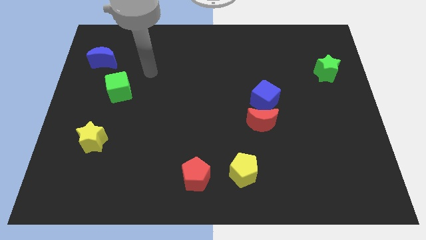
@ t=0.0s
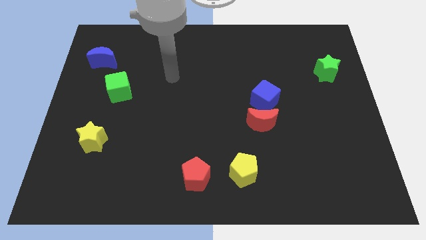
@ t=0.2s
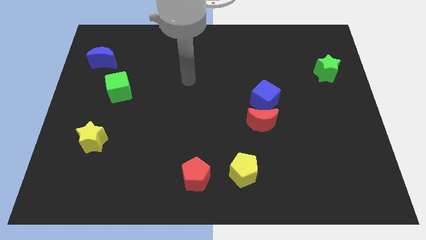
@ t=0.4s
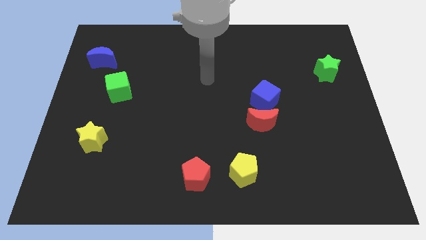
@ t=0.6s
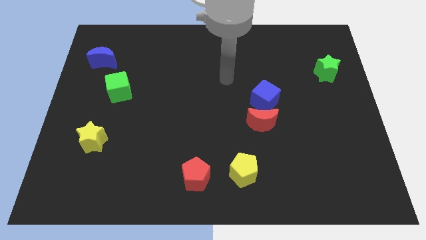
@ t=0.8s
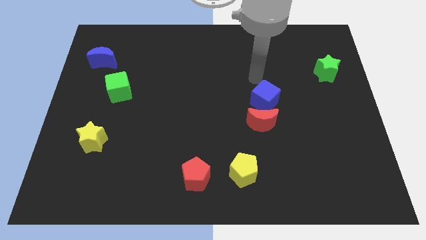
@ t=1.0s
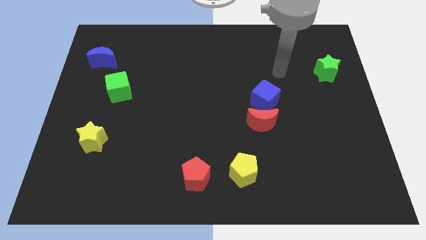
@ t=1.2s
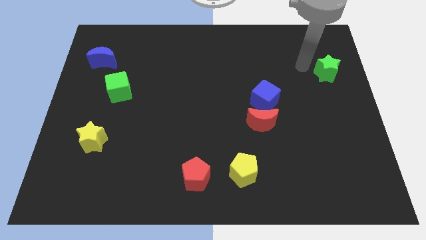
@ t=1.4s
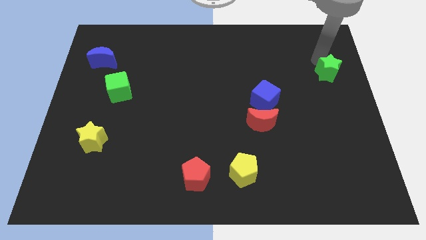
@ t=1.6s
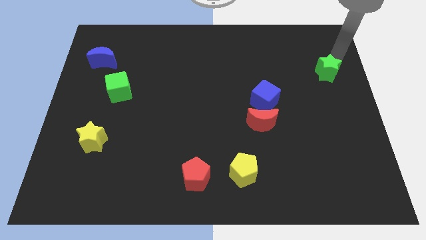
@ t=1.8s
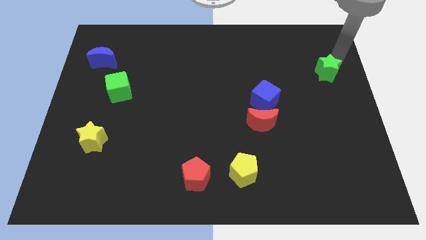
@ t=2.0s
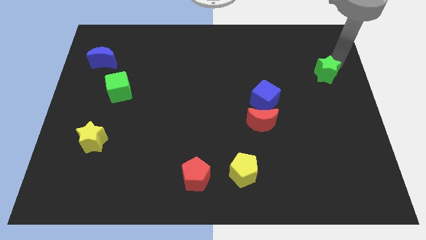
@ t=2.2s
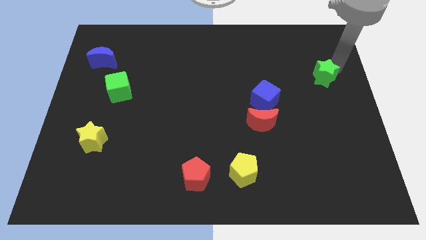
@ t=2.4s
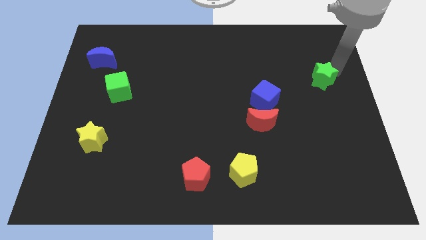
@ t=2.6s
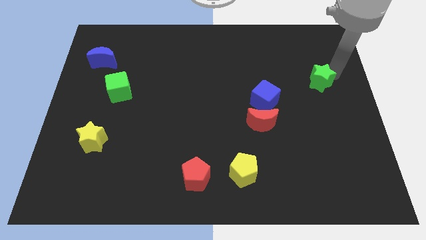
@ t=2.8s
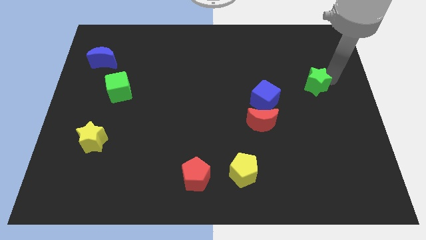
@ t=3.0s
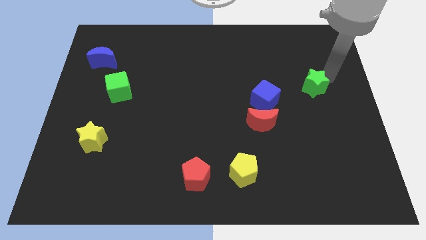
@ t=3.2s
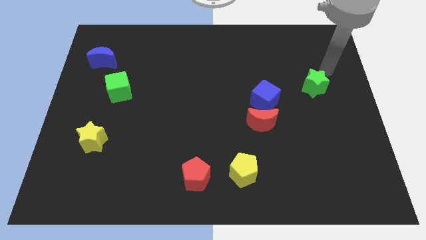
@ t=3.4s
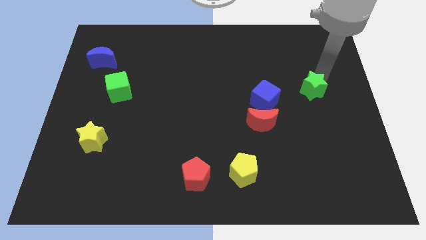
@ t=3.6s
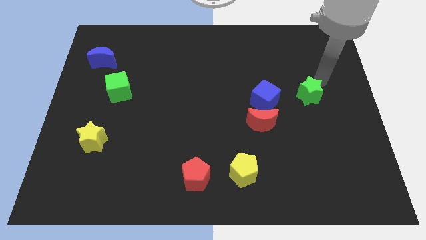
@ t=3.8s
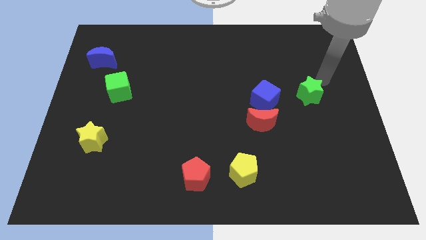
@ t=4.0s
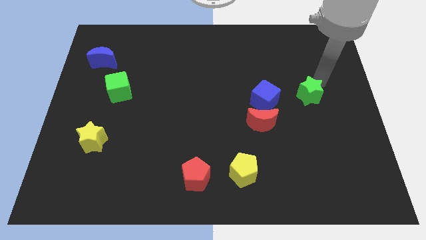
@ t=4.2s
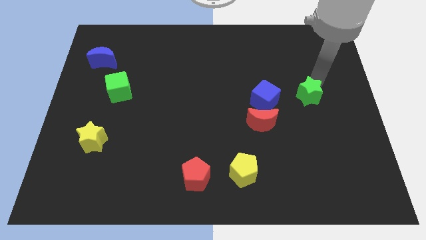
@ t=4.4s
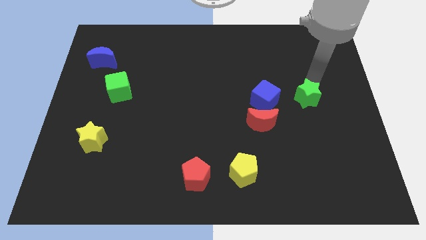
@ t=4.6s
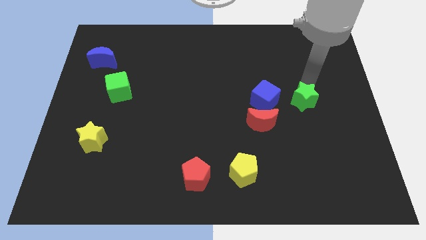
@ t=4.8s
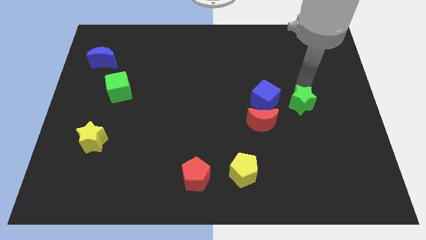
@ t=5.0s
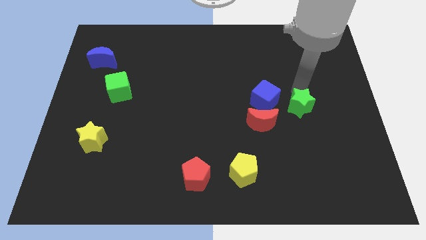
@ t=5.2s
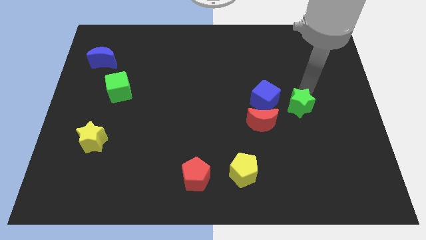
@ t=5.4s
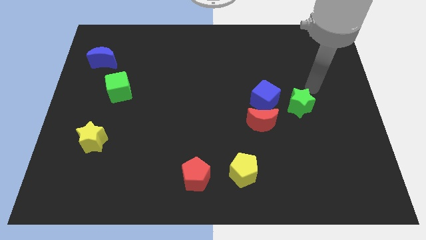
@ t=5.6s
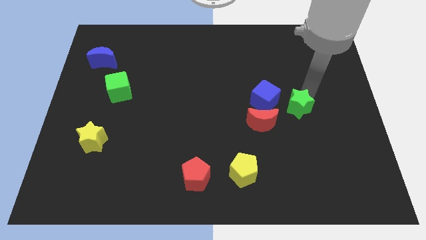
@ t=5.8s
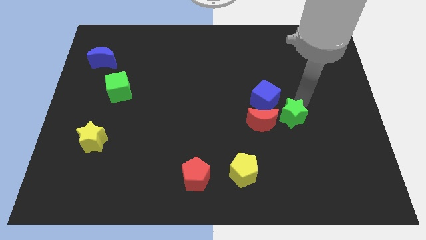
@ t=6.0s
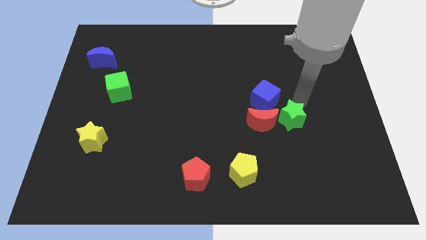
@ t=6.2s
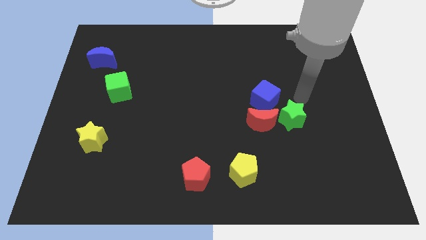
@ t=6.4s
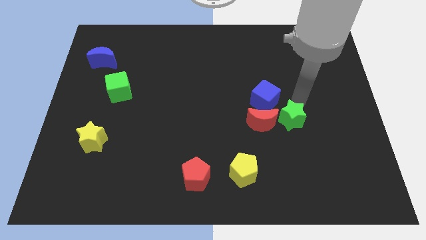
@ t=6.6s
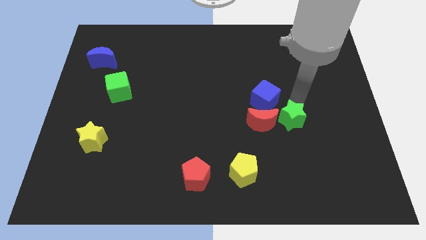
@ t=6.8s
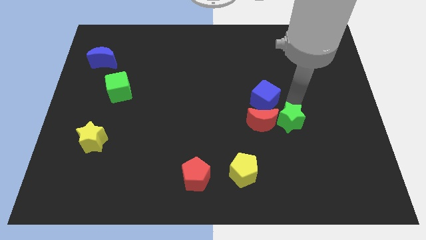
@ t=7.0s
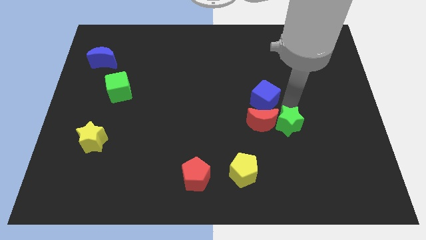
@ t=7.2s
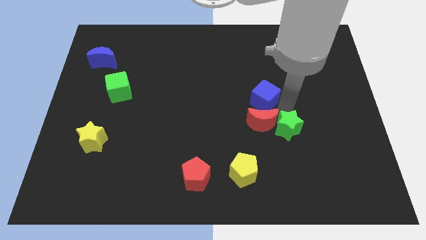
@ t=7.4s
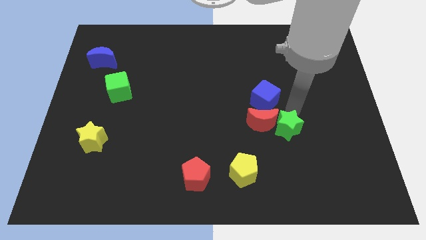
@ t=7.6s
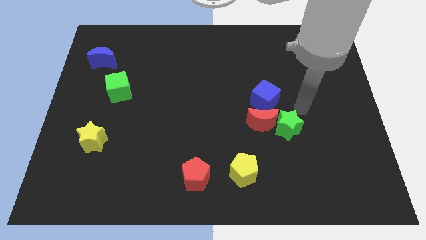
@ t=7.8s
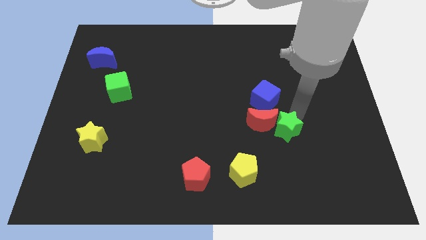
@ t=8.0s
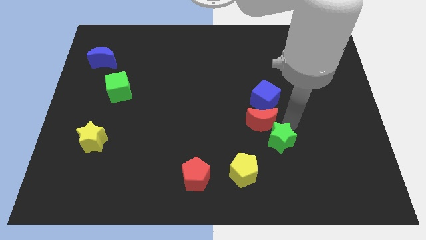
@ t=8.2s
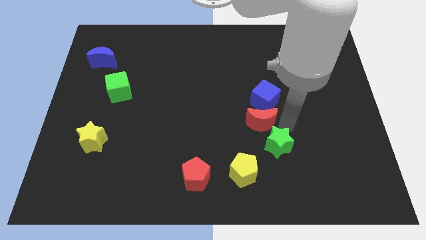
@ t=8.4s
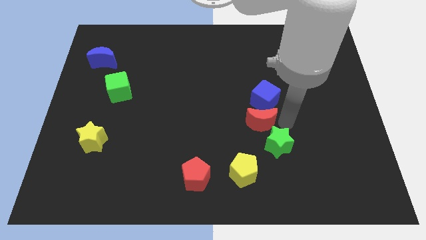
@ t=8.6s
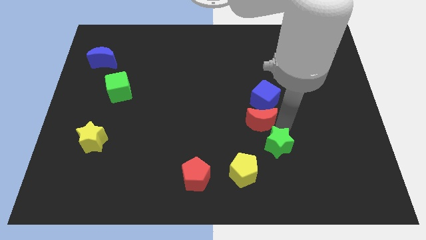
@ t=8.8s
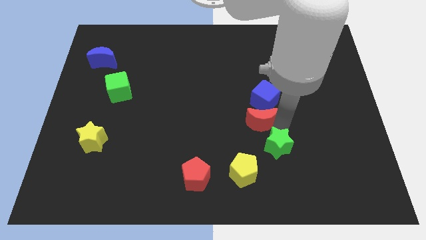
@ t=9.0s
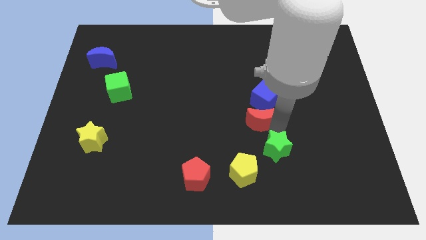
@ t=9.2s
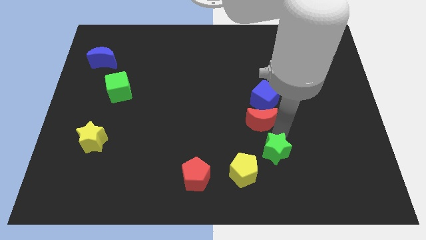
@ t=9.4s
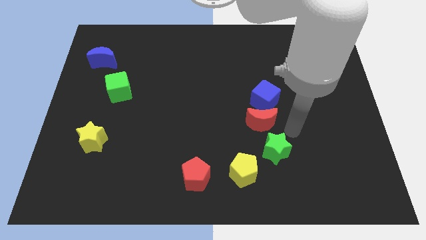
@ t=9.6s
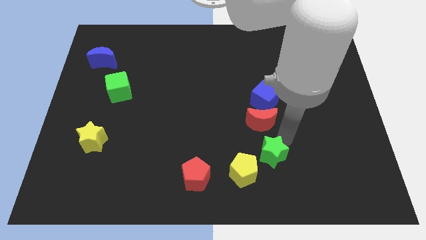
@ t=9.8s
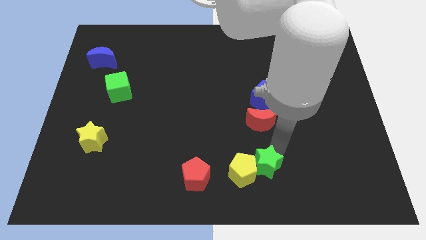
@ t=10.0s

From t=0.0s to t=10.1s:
slide the green star to the yellow pentagon

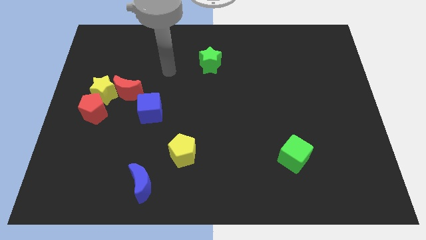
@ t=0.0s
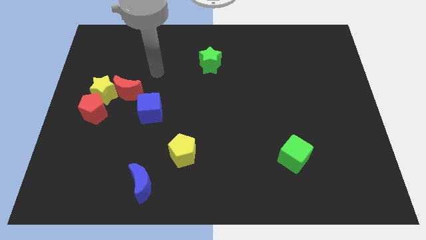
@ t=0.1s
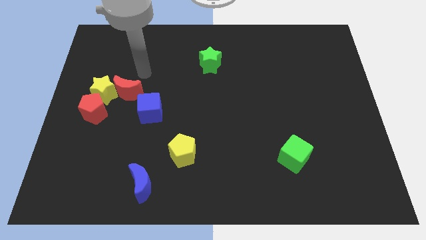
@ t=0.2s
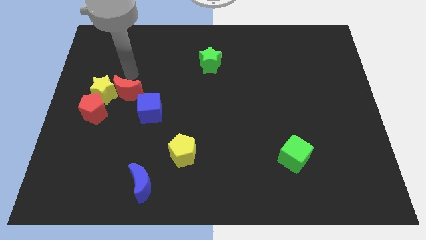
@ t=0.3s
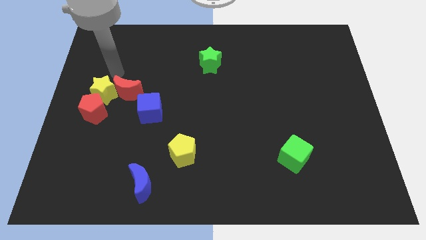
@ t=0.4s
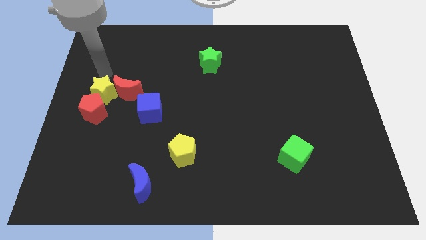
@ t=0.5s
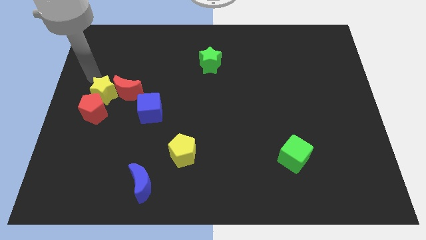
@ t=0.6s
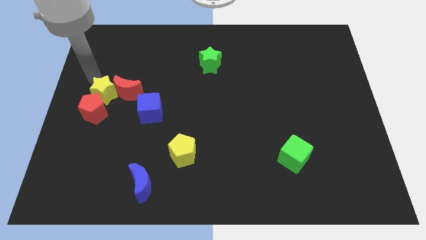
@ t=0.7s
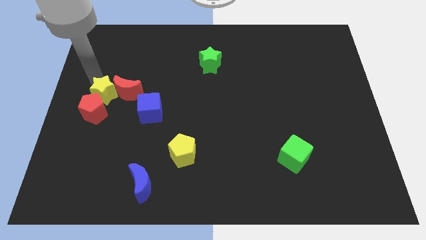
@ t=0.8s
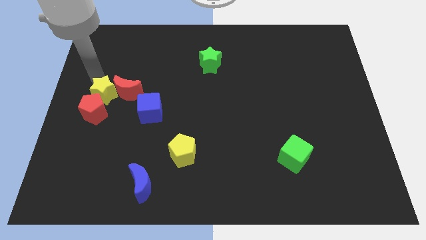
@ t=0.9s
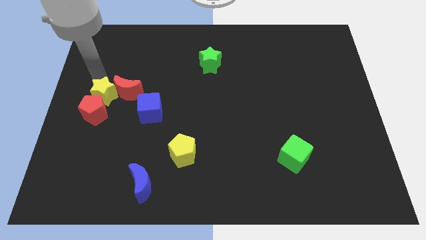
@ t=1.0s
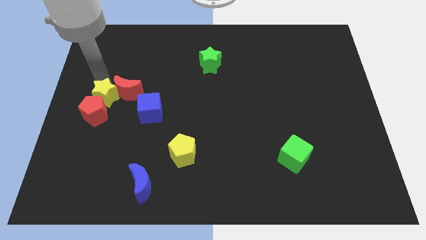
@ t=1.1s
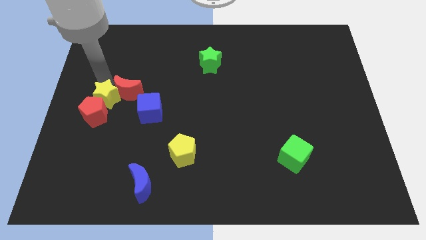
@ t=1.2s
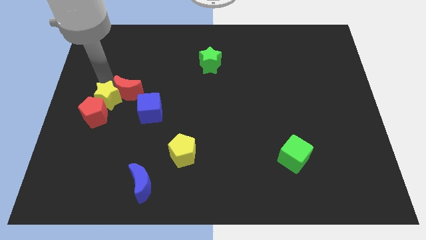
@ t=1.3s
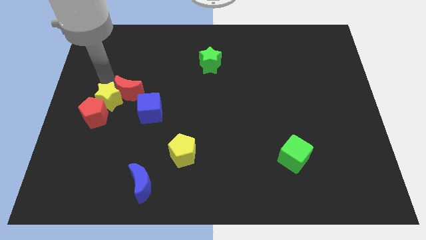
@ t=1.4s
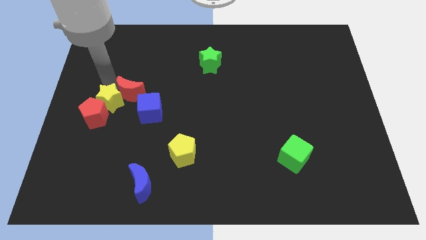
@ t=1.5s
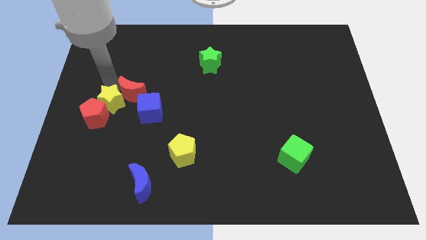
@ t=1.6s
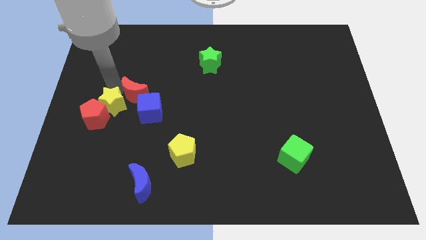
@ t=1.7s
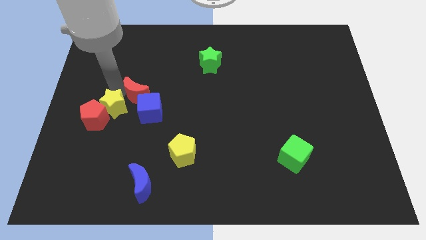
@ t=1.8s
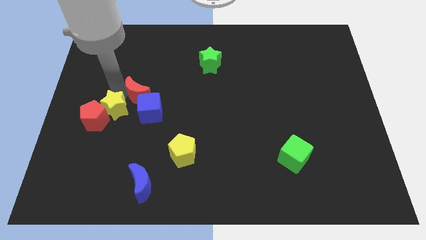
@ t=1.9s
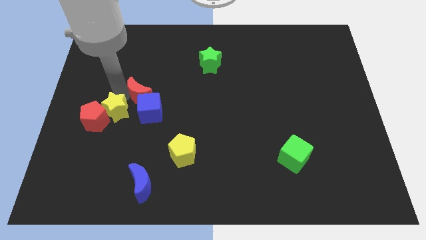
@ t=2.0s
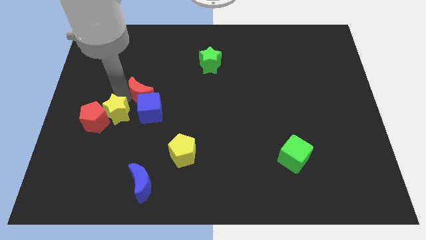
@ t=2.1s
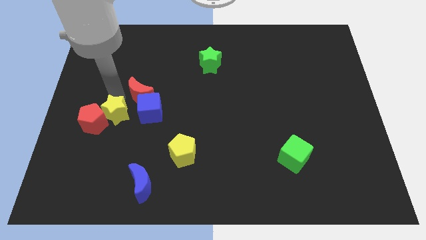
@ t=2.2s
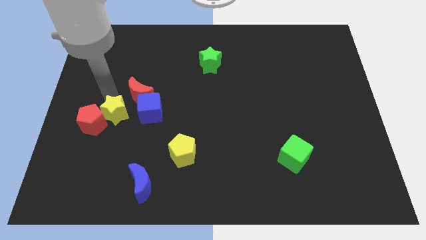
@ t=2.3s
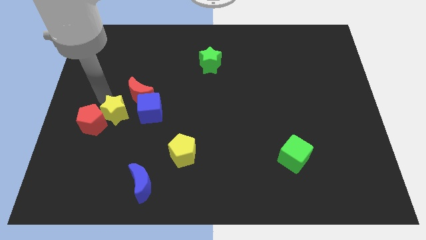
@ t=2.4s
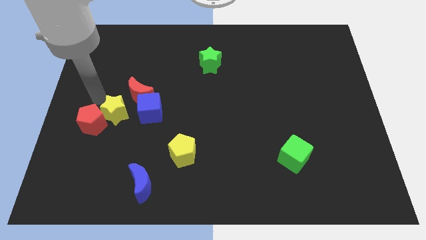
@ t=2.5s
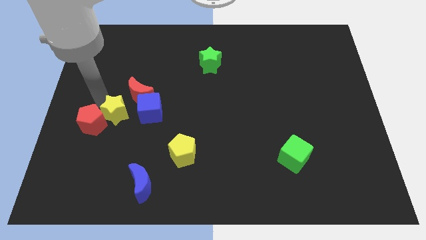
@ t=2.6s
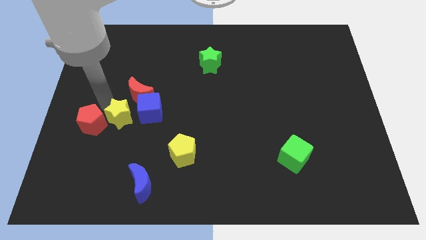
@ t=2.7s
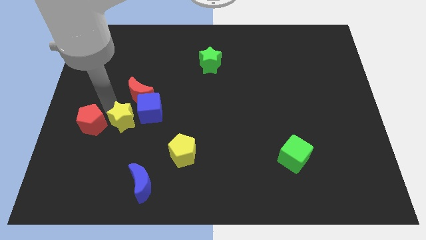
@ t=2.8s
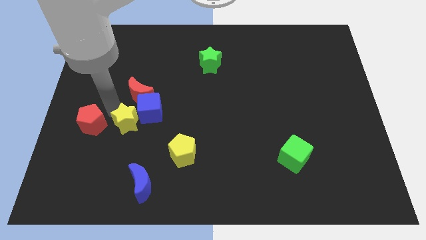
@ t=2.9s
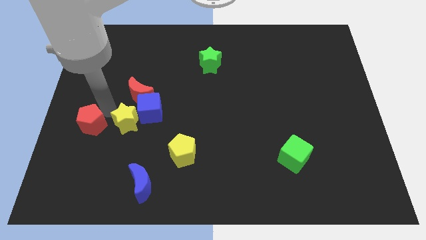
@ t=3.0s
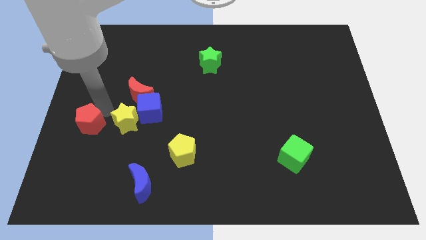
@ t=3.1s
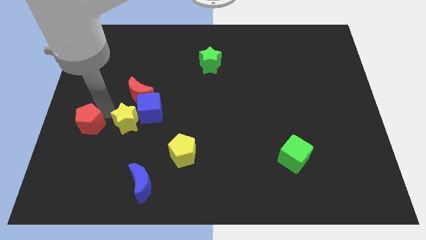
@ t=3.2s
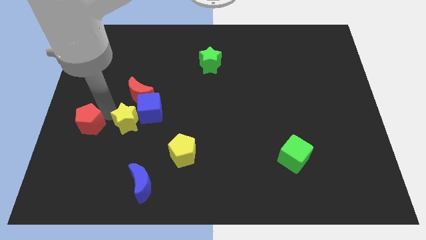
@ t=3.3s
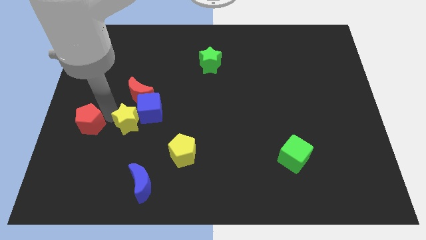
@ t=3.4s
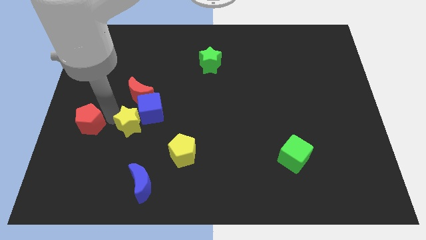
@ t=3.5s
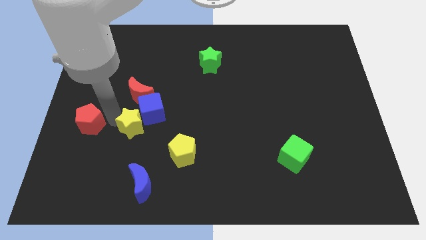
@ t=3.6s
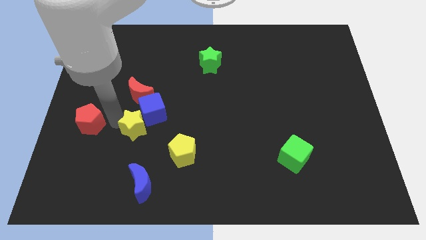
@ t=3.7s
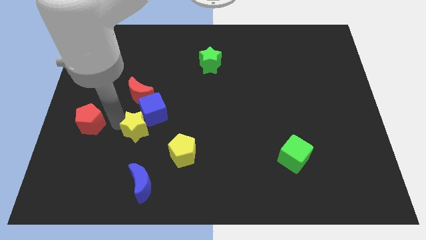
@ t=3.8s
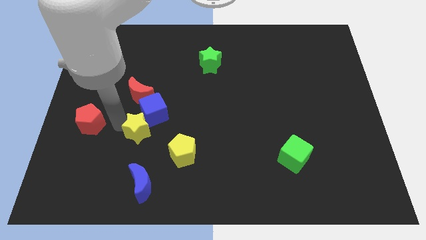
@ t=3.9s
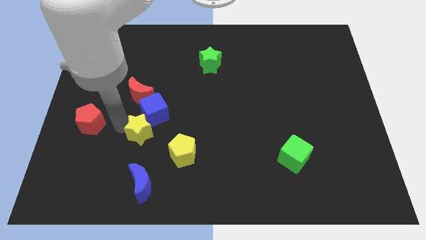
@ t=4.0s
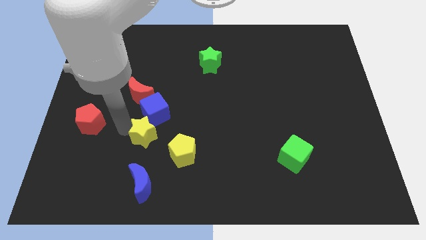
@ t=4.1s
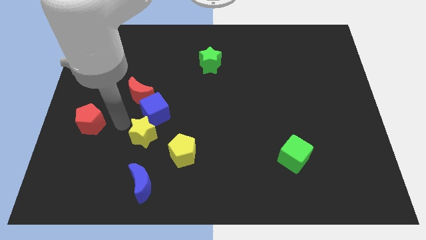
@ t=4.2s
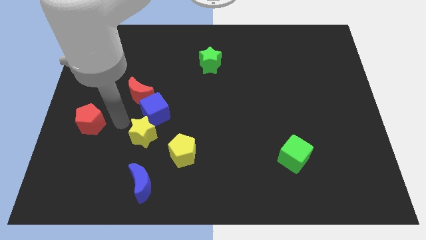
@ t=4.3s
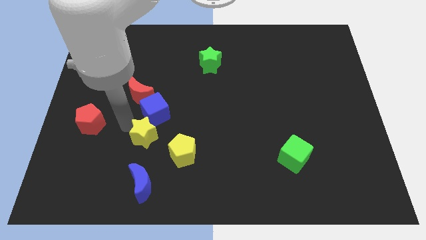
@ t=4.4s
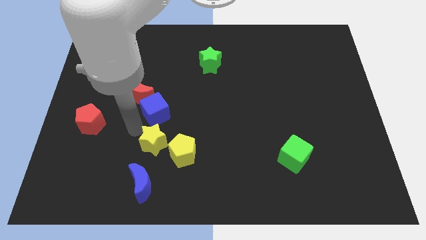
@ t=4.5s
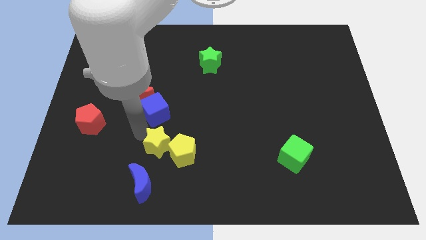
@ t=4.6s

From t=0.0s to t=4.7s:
push the yellow star close to the yellow pentagon
